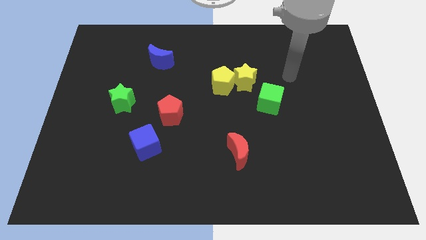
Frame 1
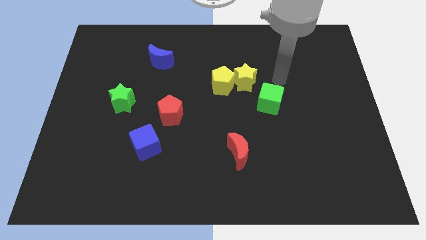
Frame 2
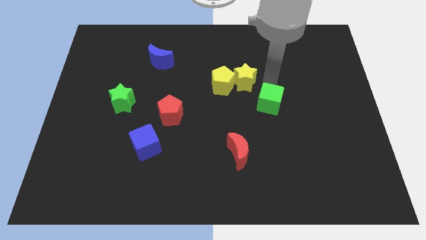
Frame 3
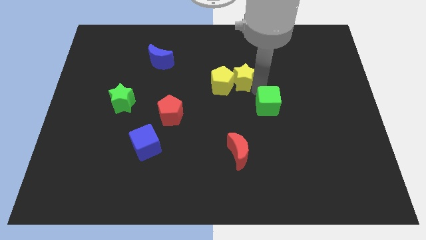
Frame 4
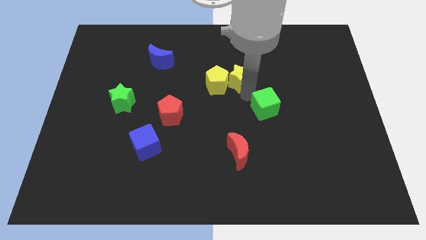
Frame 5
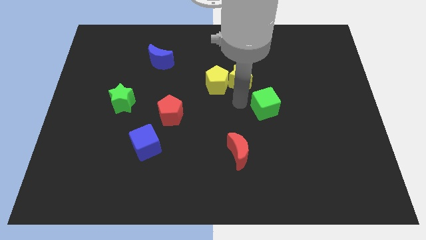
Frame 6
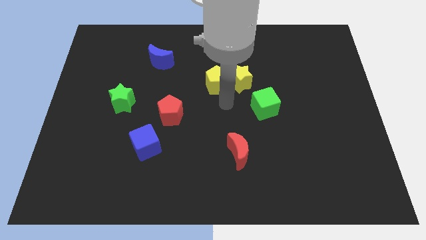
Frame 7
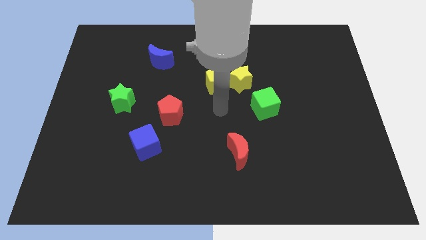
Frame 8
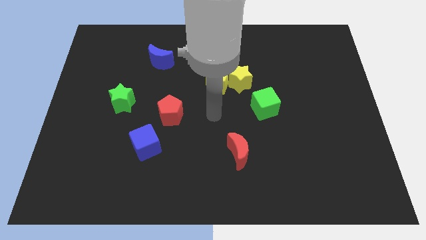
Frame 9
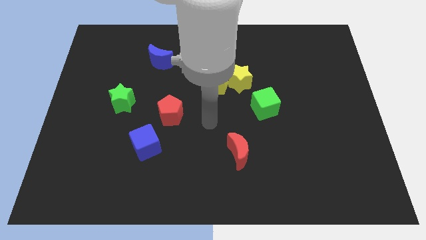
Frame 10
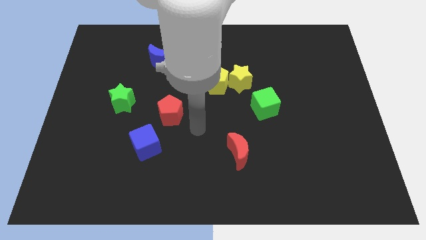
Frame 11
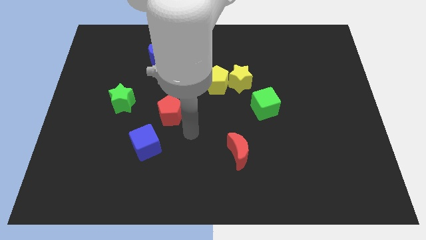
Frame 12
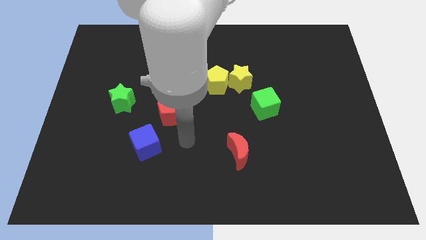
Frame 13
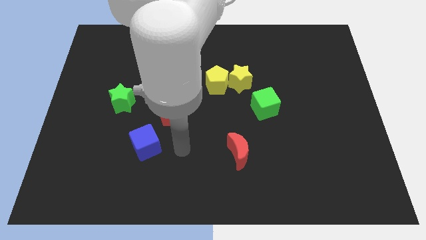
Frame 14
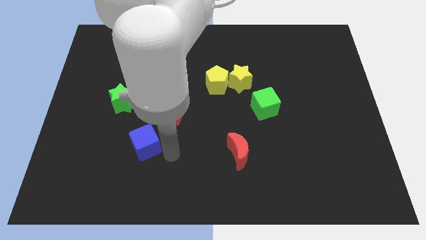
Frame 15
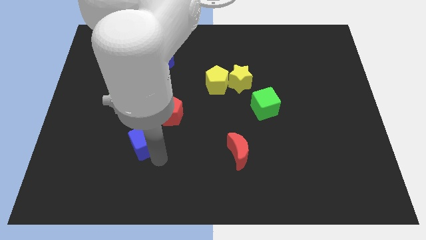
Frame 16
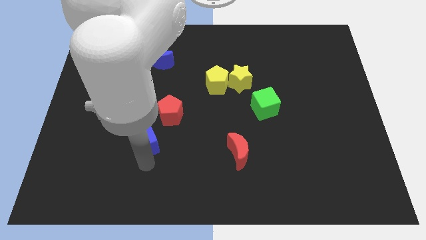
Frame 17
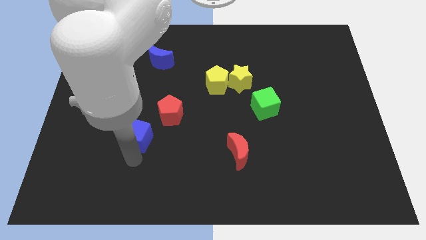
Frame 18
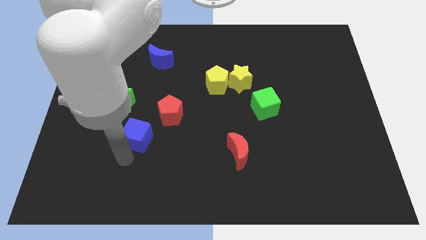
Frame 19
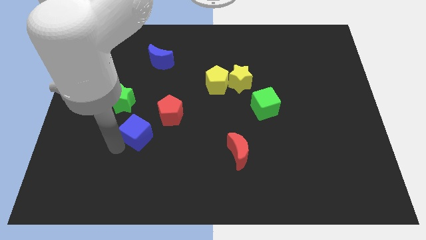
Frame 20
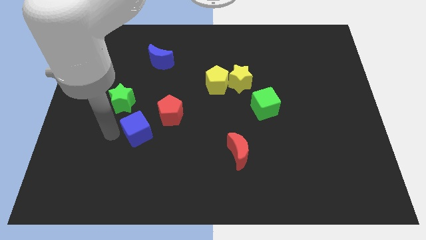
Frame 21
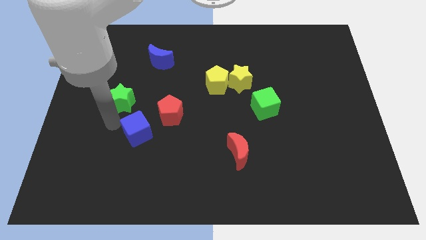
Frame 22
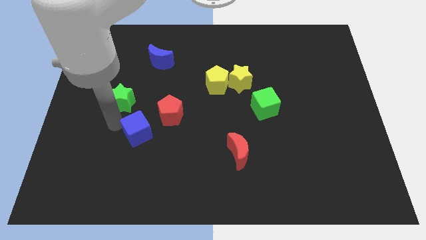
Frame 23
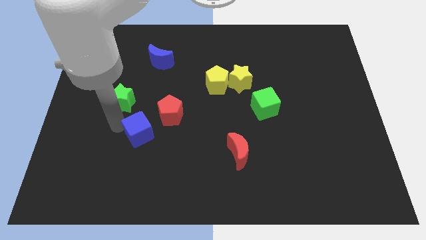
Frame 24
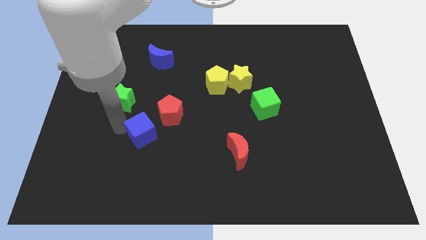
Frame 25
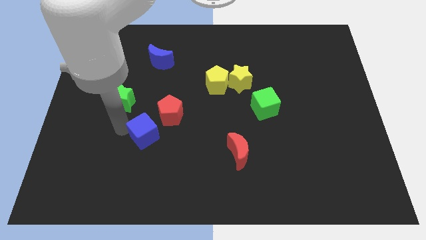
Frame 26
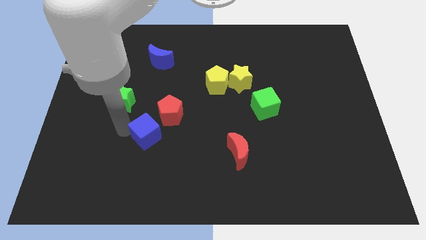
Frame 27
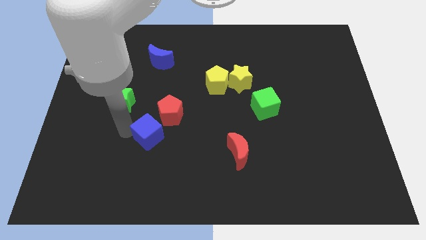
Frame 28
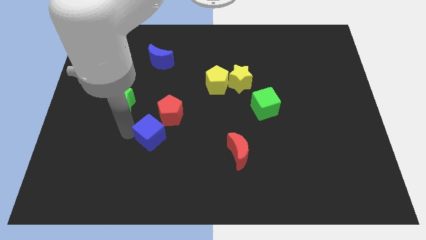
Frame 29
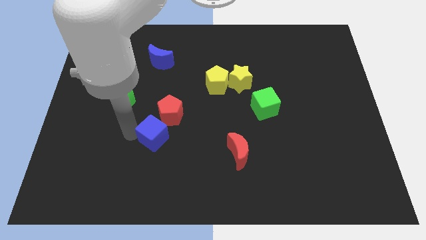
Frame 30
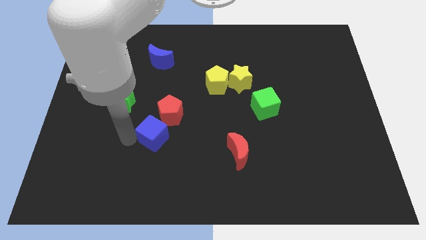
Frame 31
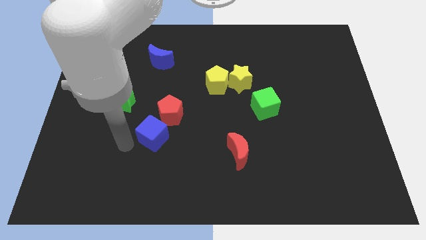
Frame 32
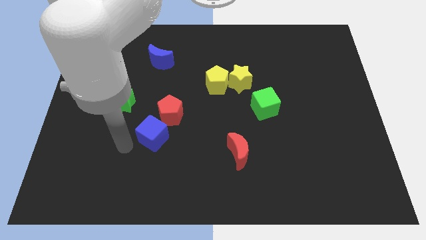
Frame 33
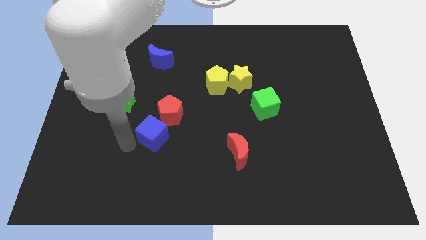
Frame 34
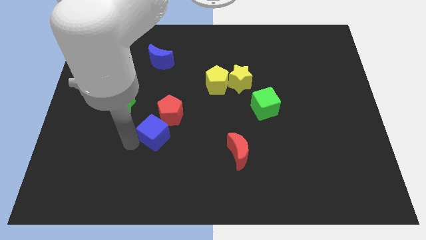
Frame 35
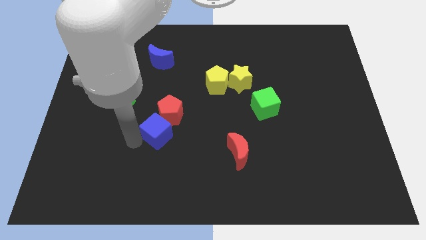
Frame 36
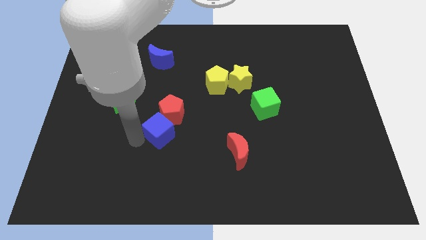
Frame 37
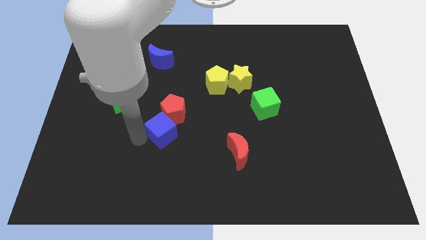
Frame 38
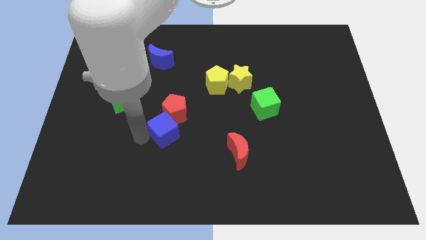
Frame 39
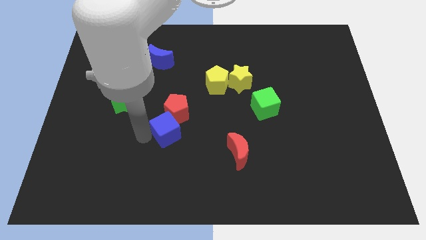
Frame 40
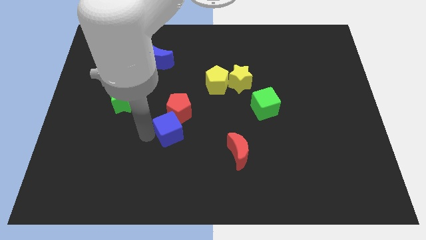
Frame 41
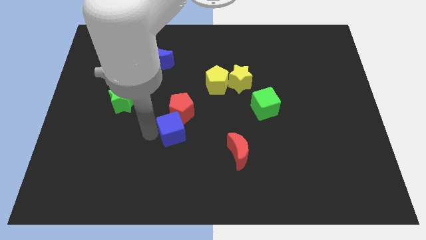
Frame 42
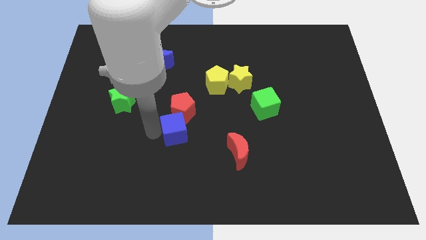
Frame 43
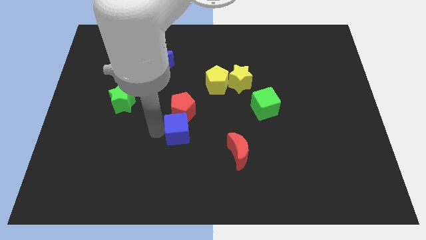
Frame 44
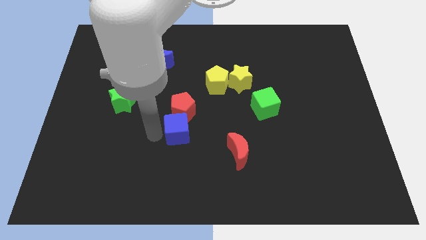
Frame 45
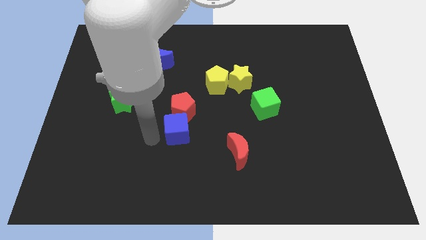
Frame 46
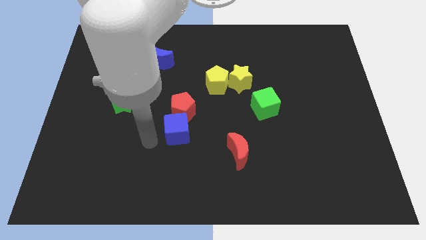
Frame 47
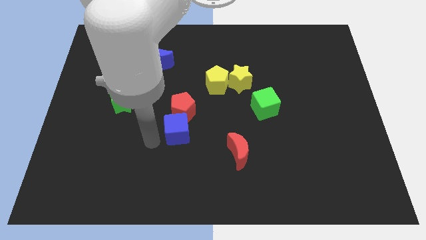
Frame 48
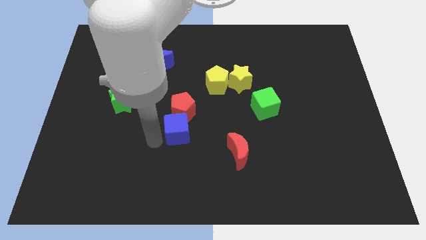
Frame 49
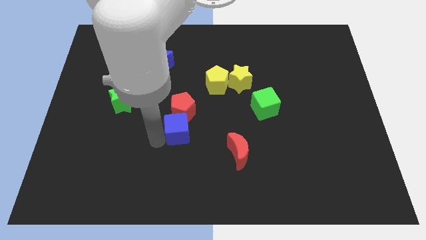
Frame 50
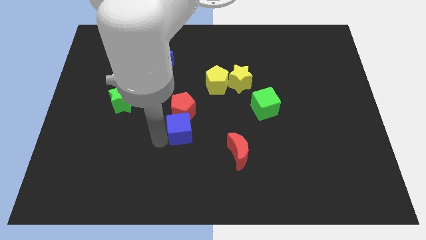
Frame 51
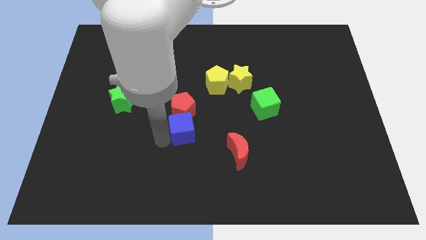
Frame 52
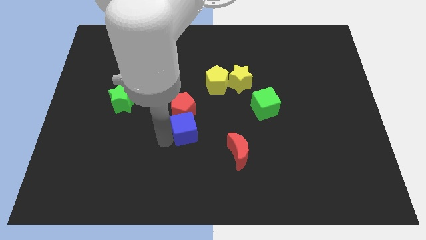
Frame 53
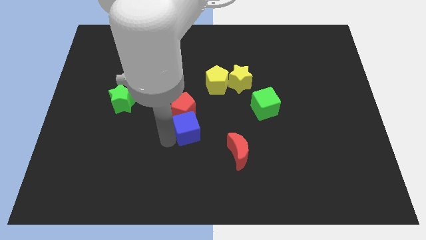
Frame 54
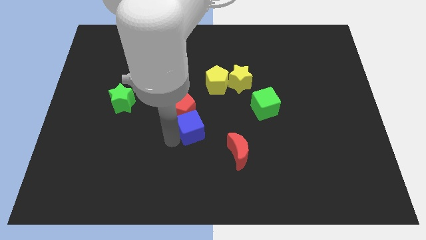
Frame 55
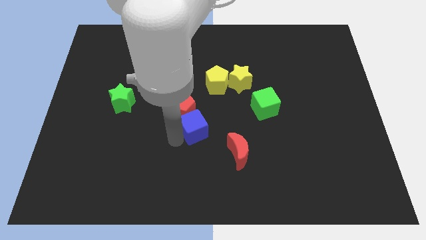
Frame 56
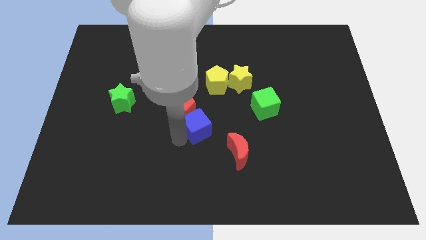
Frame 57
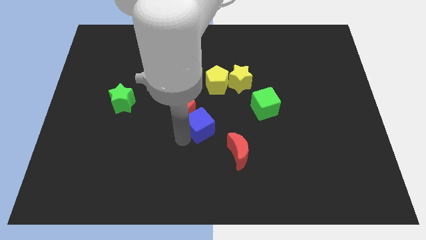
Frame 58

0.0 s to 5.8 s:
move the blue cube to the bottom side of the yellow pentagon

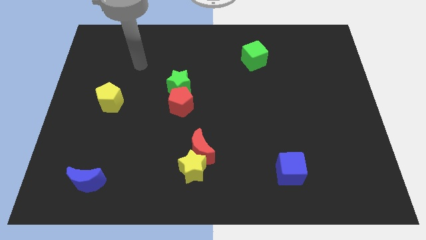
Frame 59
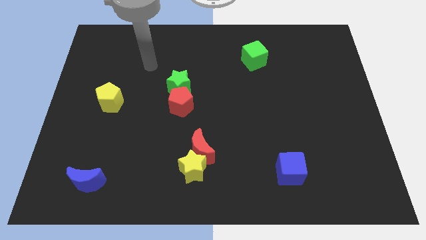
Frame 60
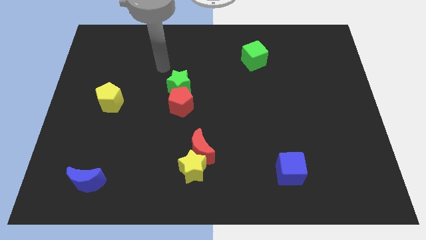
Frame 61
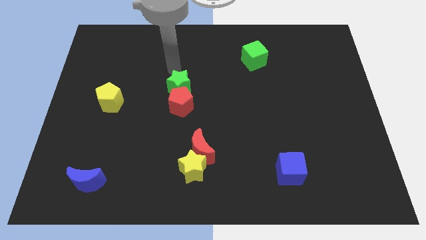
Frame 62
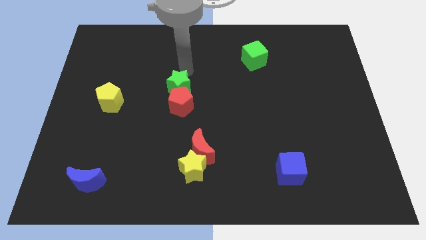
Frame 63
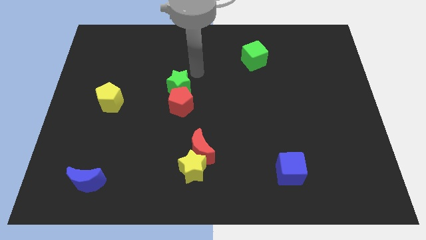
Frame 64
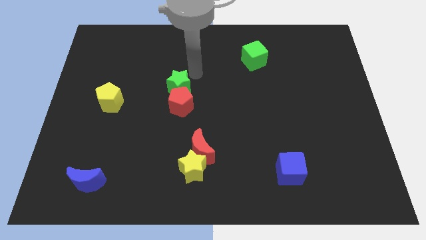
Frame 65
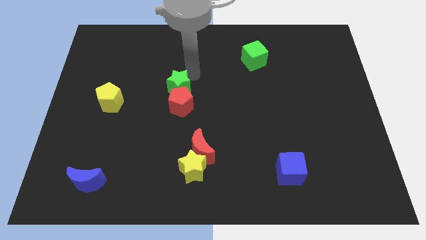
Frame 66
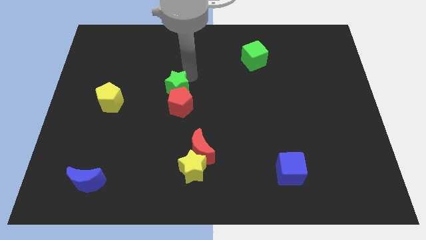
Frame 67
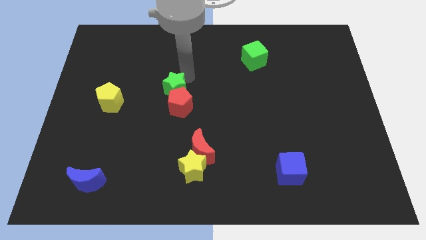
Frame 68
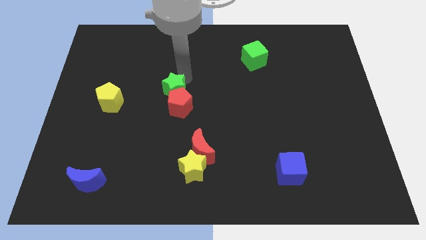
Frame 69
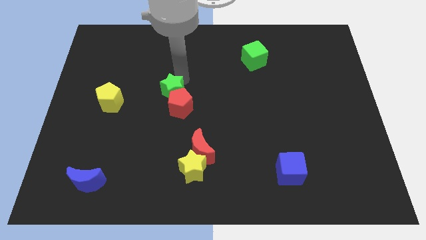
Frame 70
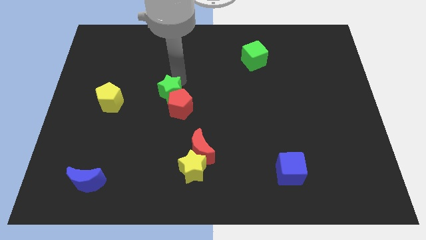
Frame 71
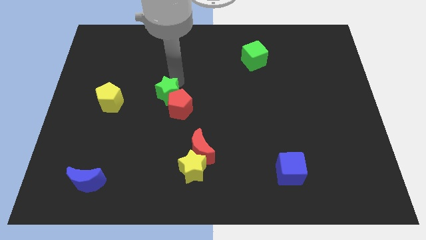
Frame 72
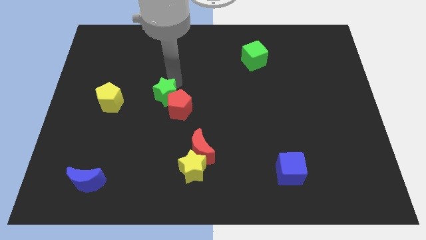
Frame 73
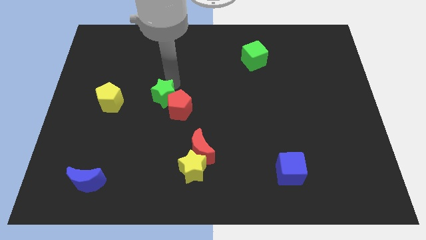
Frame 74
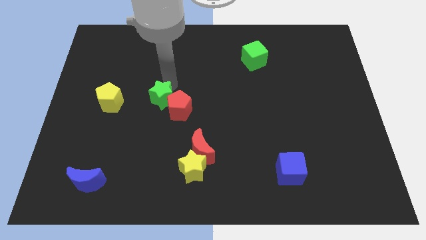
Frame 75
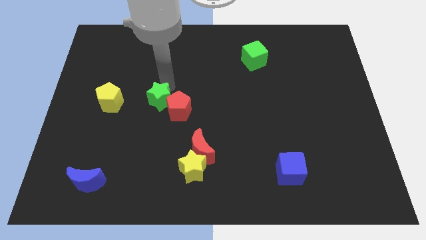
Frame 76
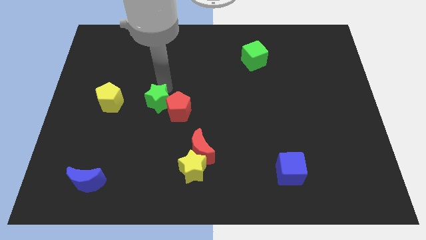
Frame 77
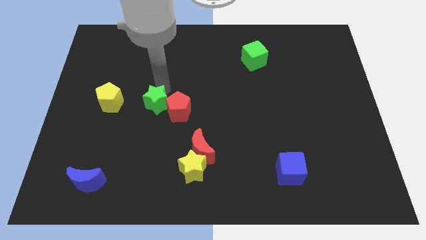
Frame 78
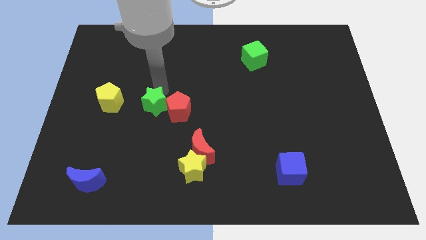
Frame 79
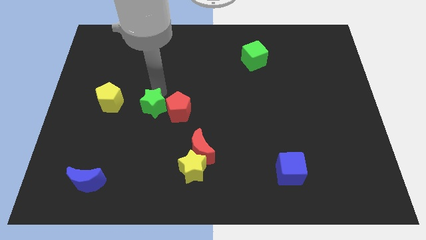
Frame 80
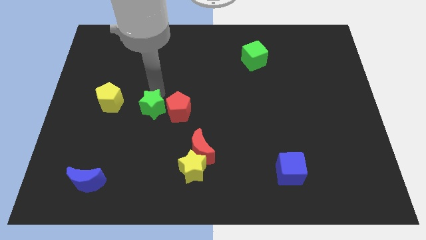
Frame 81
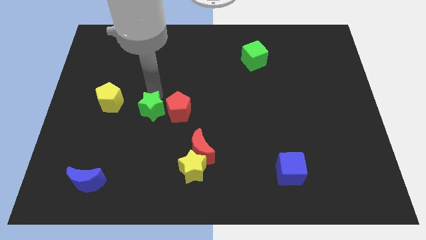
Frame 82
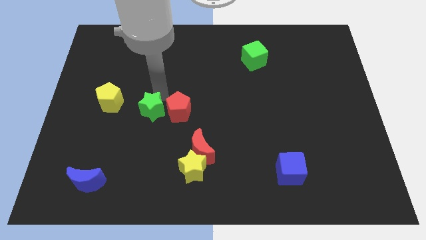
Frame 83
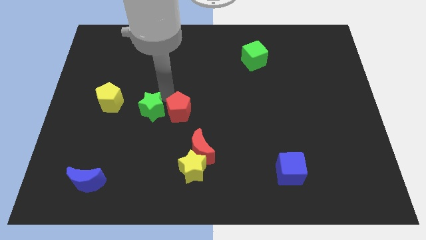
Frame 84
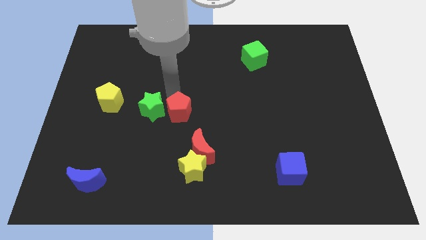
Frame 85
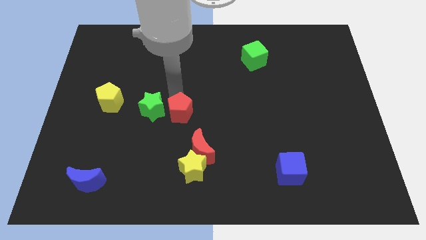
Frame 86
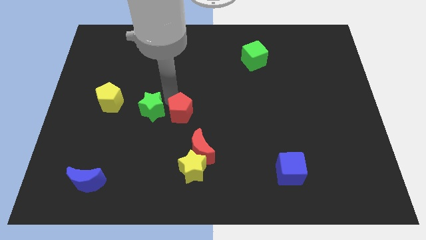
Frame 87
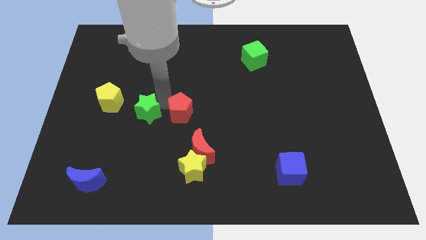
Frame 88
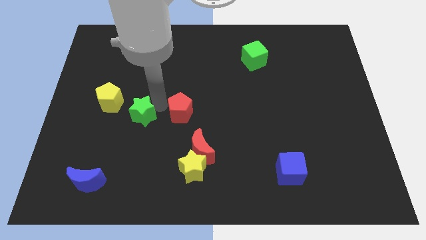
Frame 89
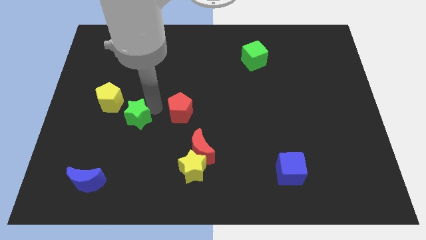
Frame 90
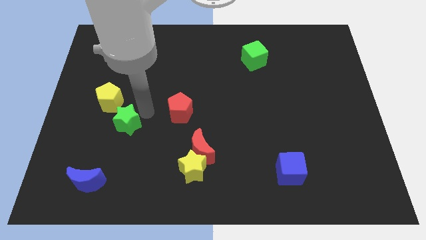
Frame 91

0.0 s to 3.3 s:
put the green star below the yellow pentagon
